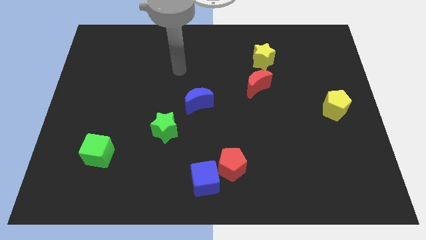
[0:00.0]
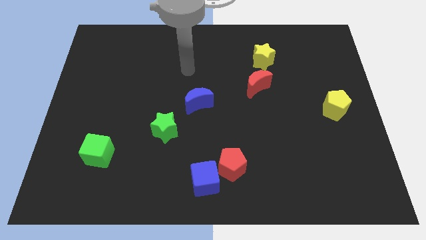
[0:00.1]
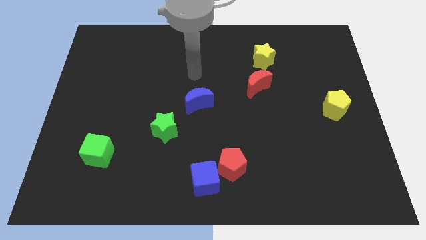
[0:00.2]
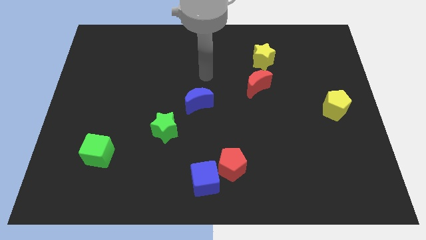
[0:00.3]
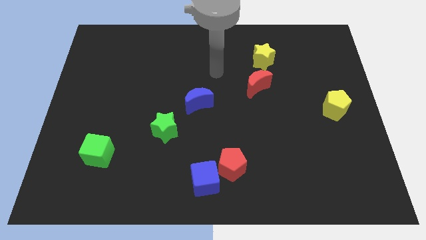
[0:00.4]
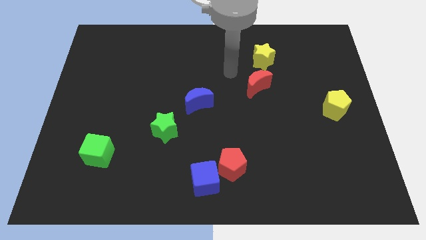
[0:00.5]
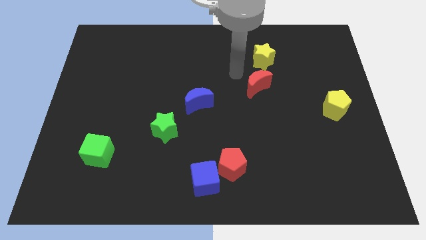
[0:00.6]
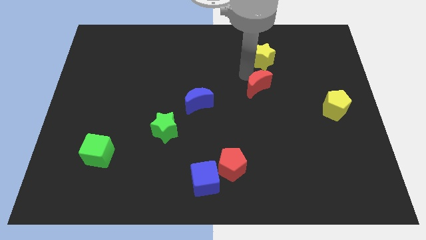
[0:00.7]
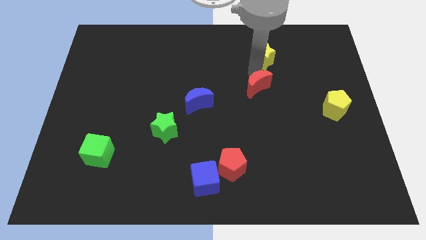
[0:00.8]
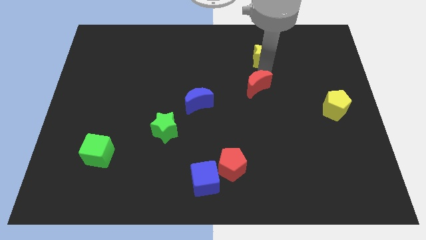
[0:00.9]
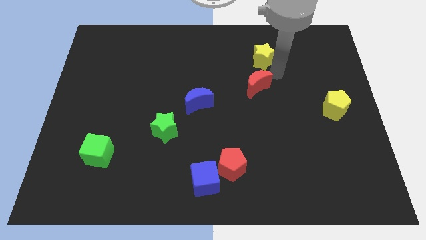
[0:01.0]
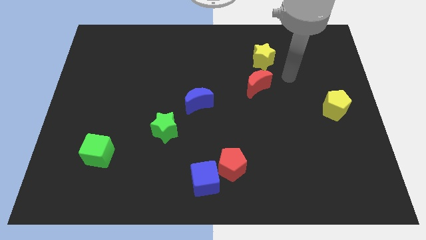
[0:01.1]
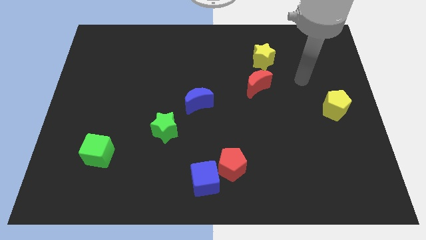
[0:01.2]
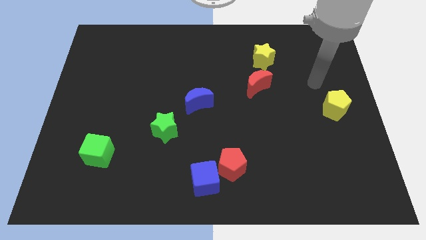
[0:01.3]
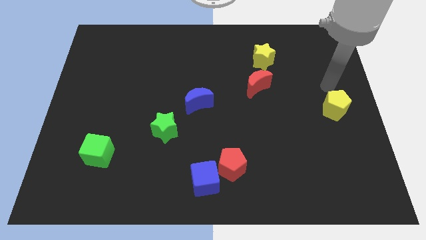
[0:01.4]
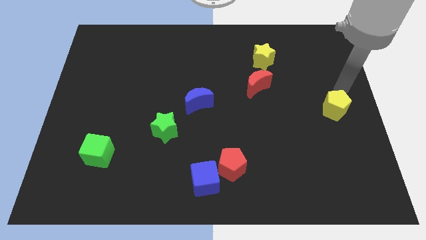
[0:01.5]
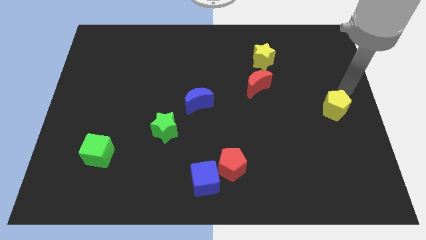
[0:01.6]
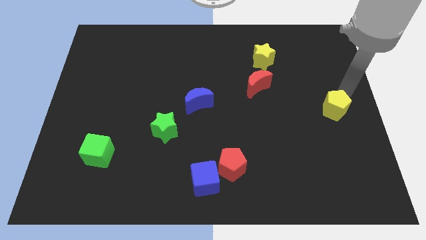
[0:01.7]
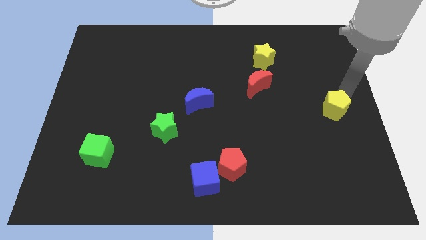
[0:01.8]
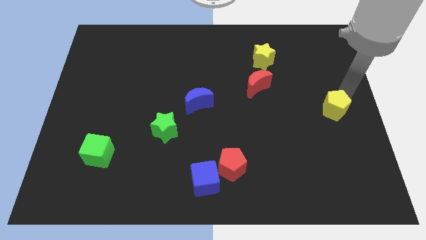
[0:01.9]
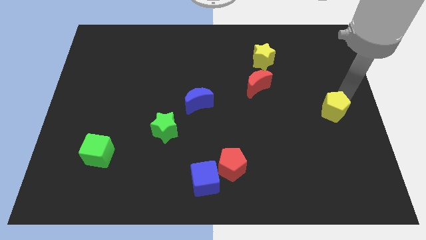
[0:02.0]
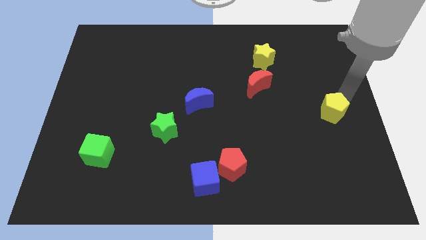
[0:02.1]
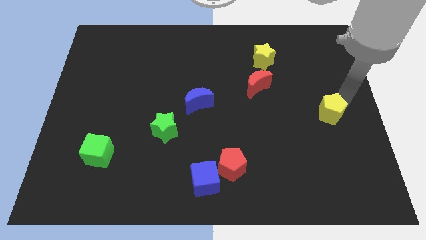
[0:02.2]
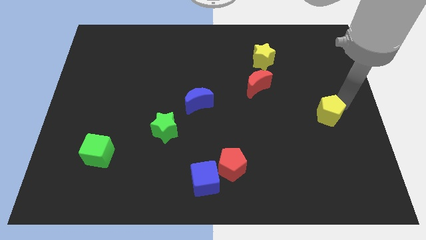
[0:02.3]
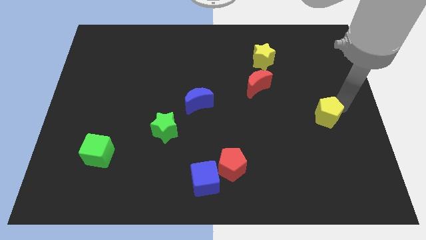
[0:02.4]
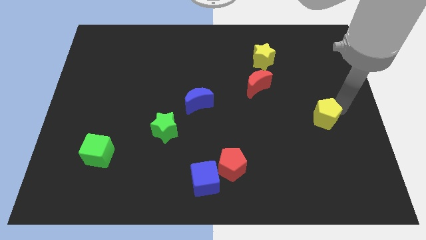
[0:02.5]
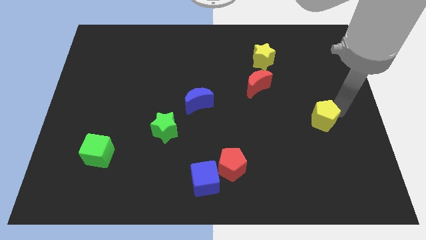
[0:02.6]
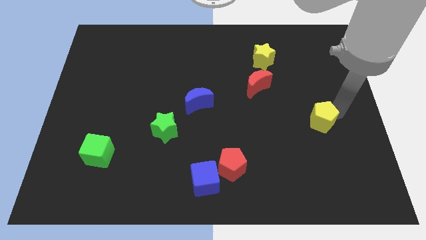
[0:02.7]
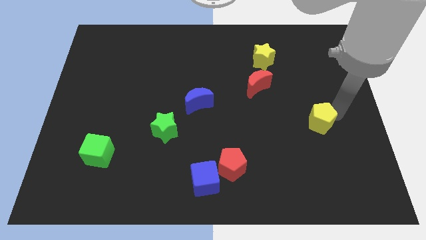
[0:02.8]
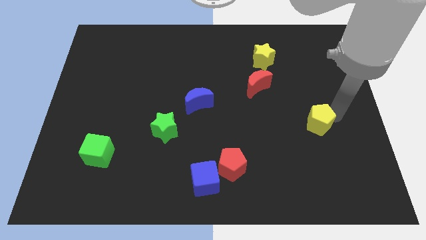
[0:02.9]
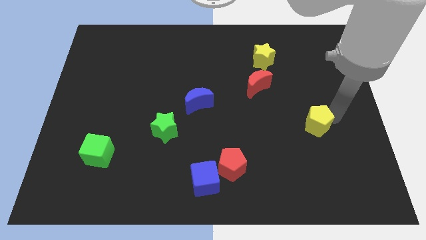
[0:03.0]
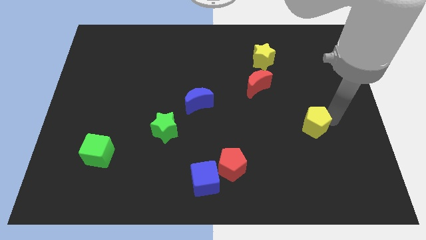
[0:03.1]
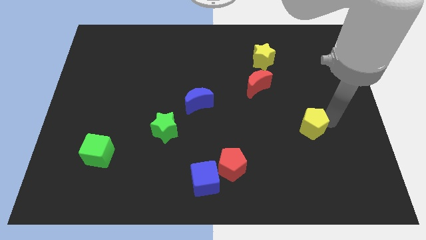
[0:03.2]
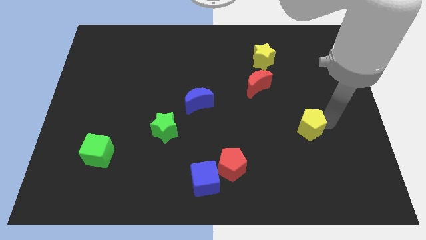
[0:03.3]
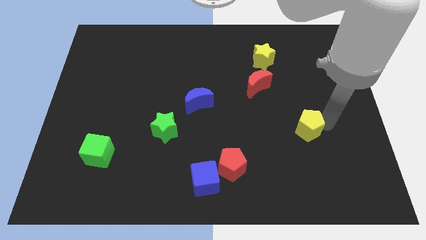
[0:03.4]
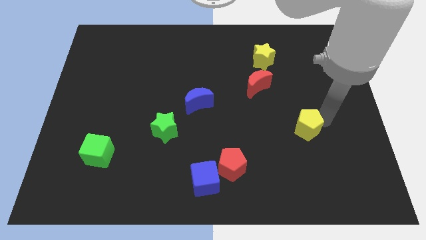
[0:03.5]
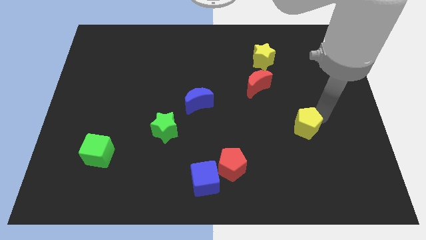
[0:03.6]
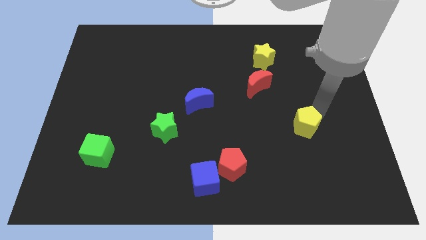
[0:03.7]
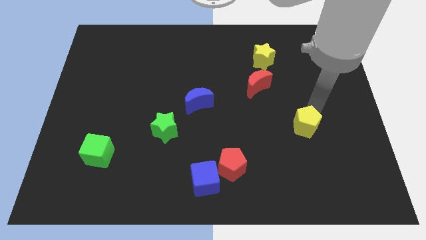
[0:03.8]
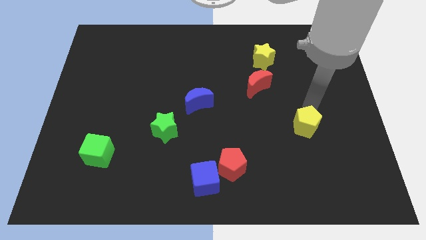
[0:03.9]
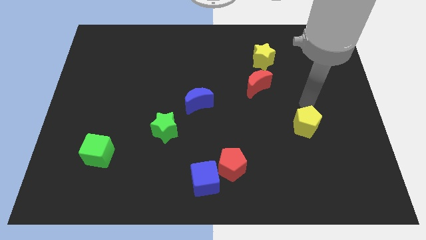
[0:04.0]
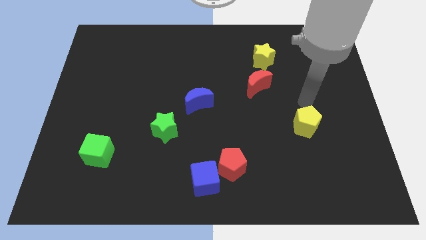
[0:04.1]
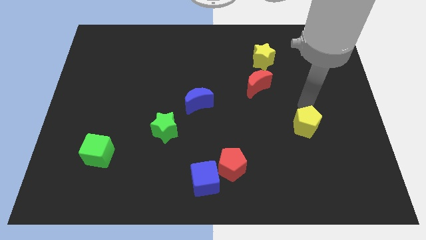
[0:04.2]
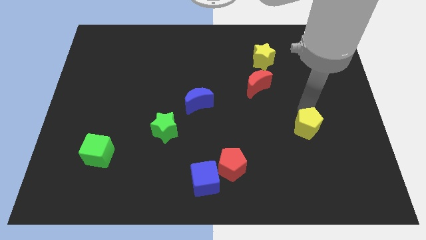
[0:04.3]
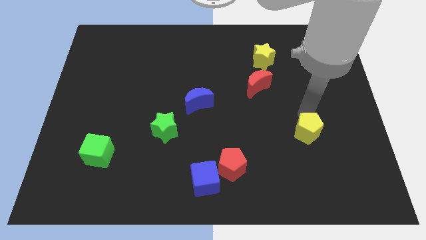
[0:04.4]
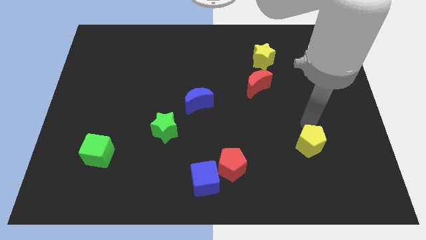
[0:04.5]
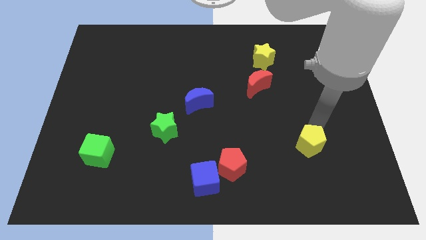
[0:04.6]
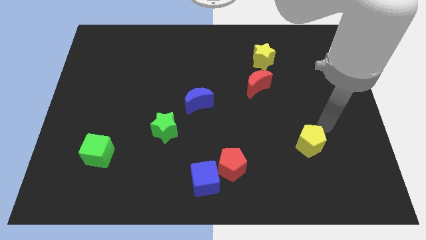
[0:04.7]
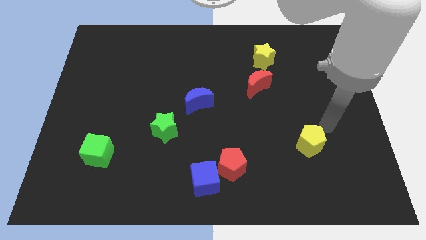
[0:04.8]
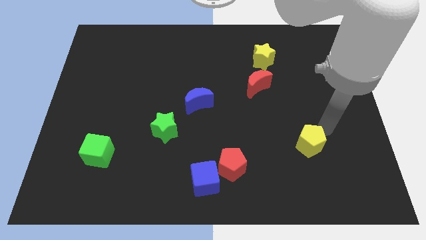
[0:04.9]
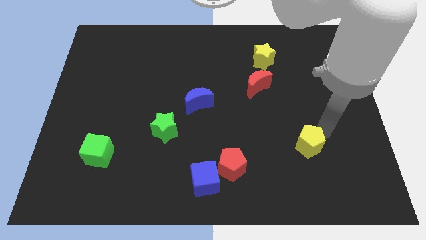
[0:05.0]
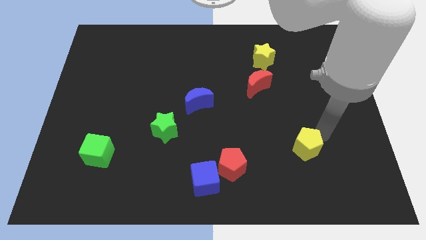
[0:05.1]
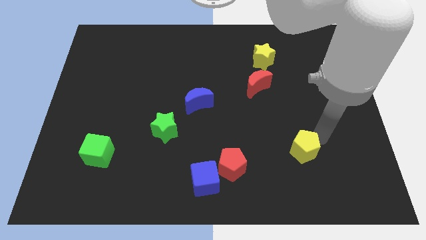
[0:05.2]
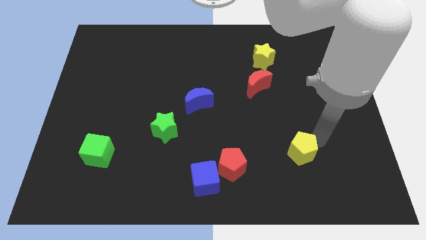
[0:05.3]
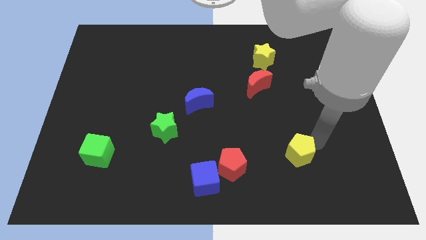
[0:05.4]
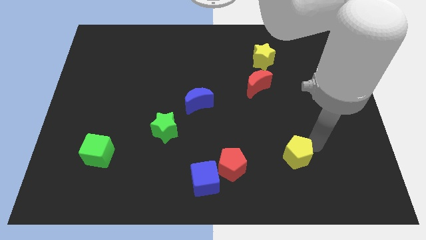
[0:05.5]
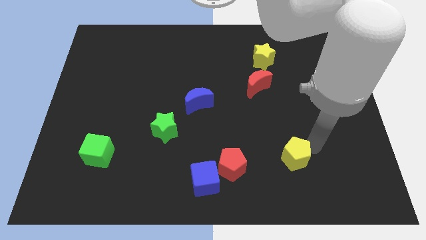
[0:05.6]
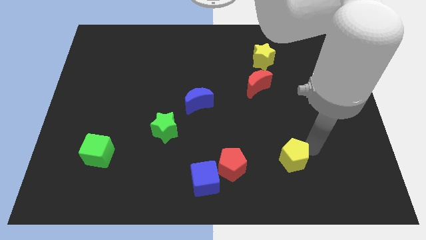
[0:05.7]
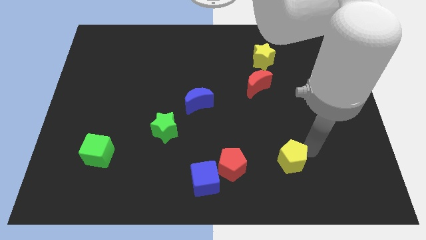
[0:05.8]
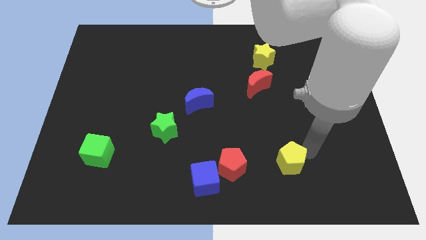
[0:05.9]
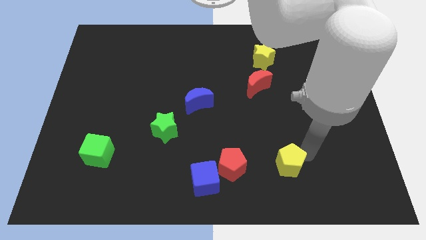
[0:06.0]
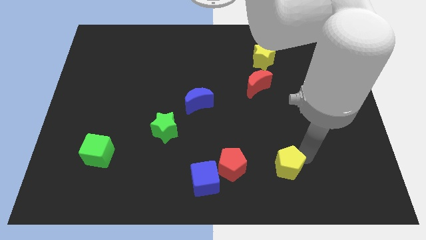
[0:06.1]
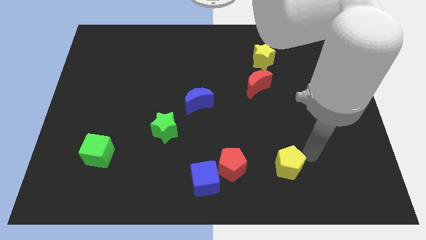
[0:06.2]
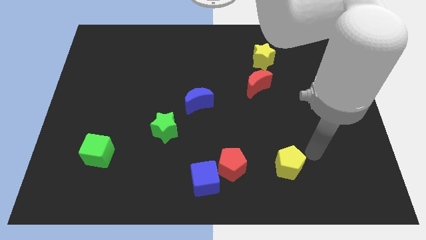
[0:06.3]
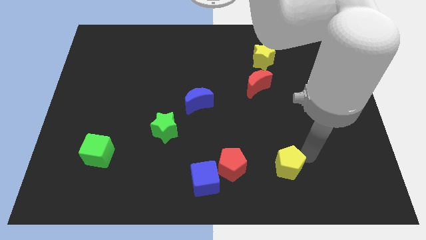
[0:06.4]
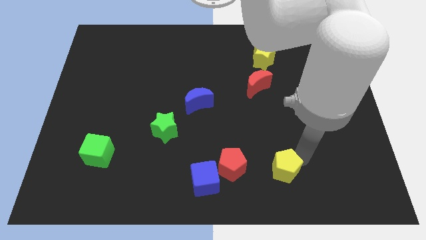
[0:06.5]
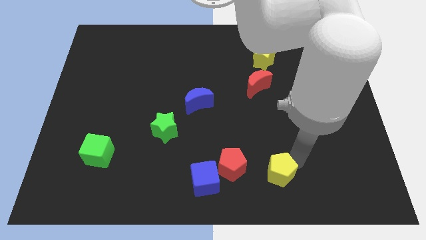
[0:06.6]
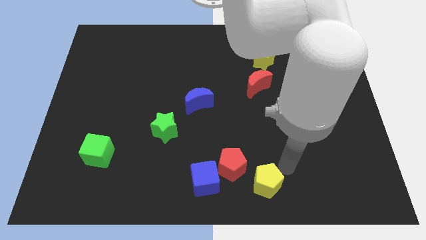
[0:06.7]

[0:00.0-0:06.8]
move the yellow pentagon to the bottom
